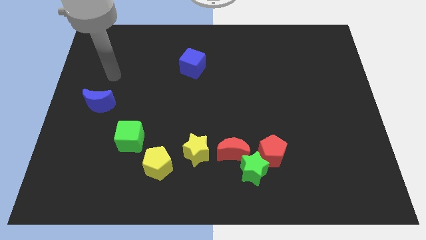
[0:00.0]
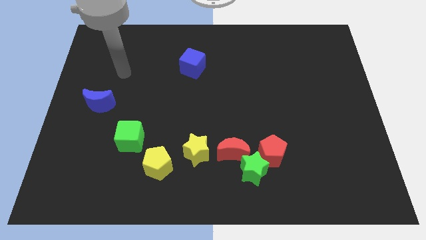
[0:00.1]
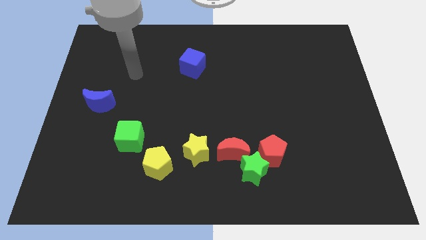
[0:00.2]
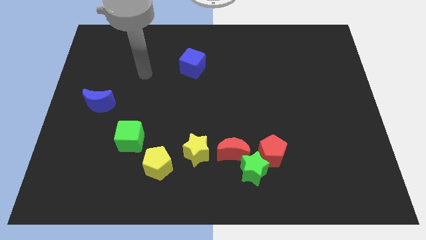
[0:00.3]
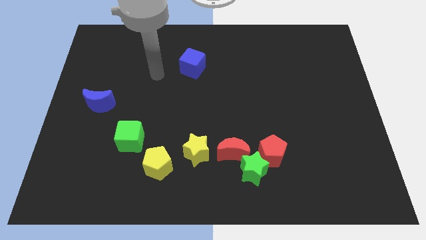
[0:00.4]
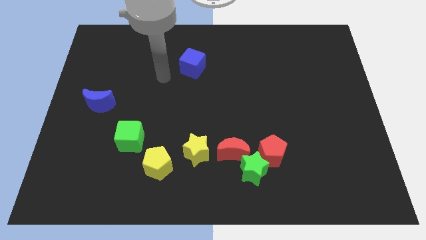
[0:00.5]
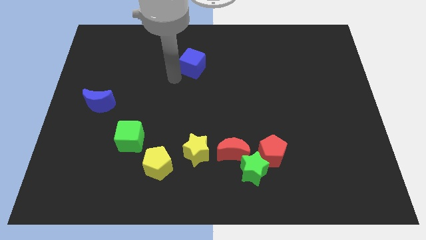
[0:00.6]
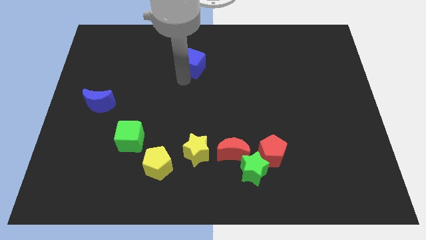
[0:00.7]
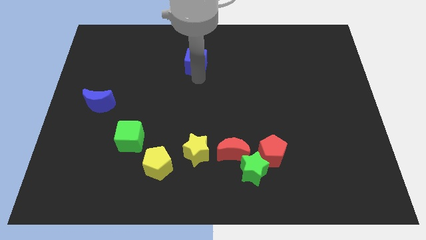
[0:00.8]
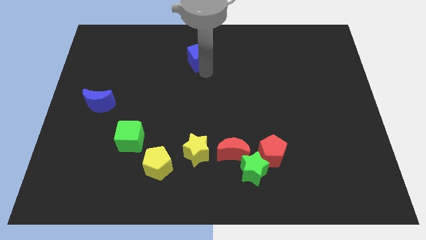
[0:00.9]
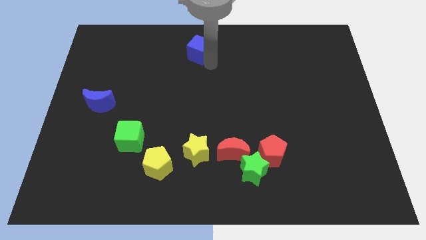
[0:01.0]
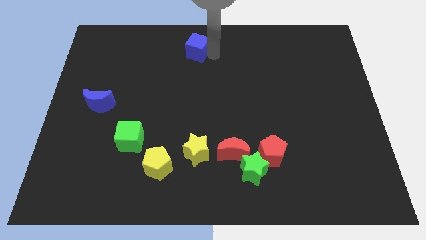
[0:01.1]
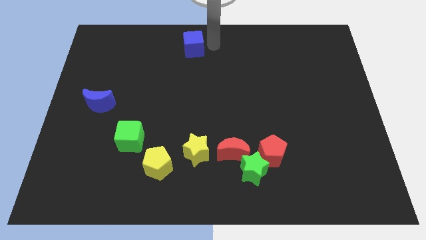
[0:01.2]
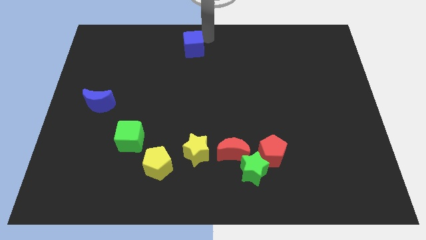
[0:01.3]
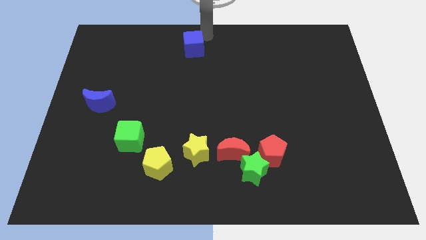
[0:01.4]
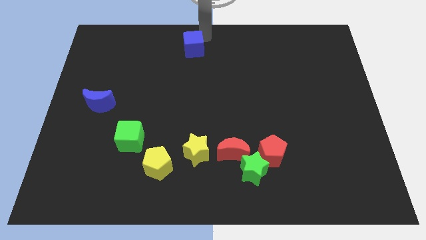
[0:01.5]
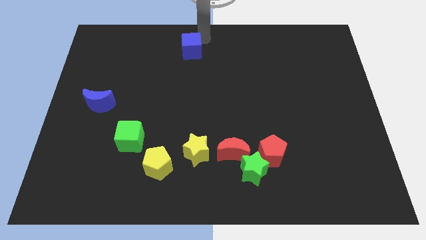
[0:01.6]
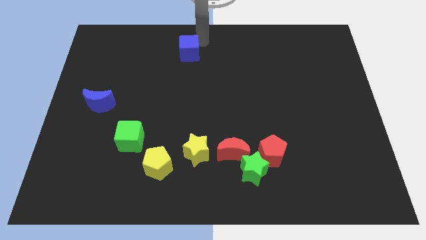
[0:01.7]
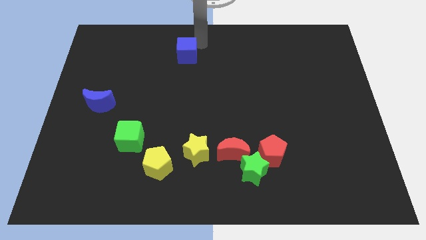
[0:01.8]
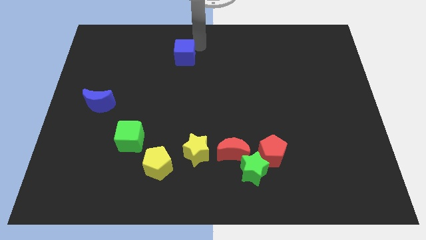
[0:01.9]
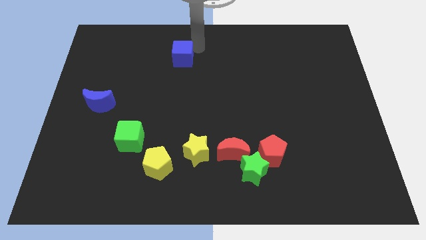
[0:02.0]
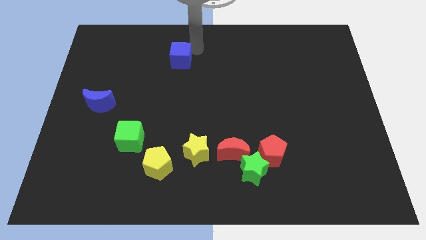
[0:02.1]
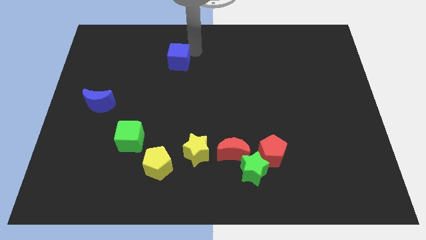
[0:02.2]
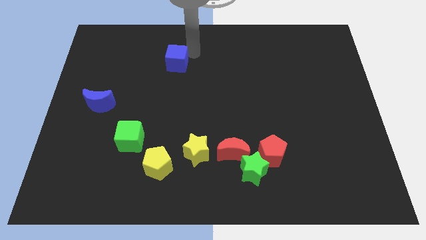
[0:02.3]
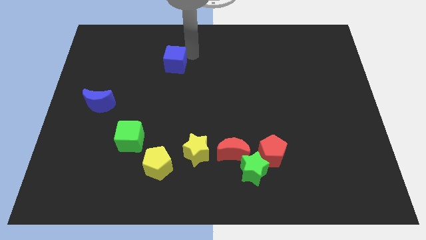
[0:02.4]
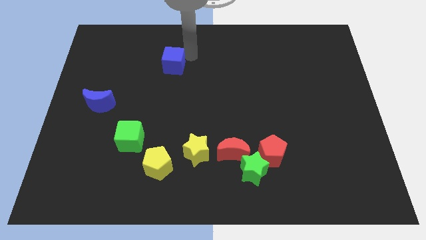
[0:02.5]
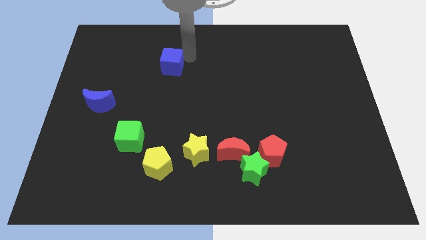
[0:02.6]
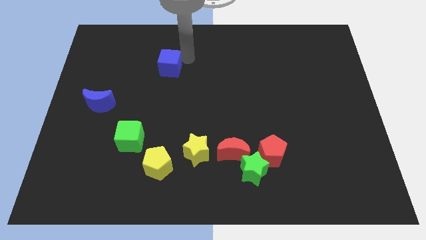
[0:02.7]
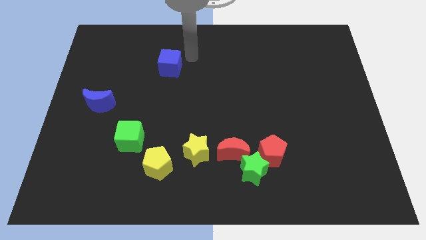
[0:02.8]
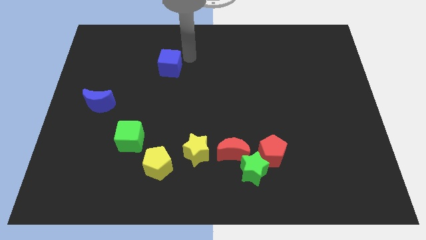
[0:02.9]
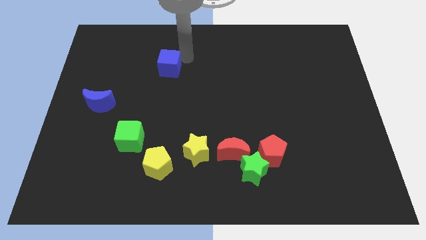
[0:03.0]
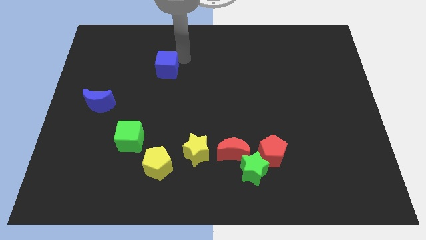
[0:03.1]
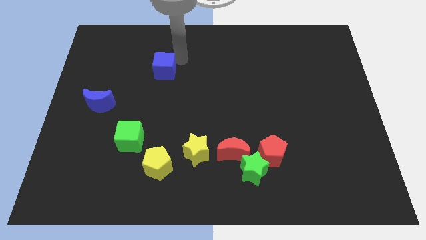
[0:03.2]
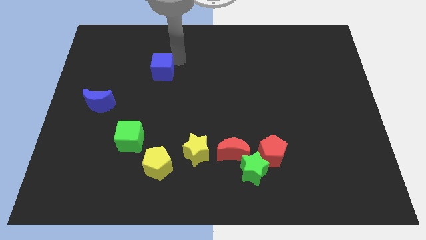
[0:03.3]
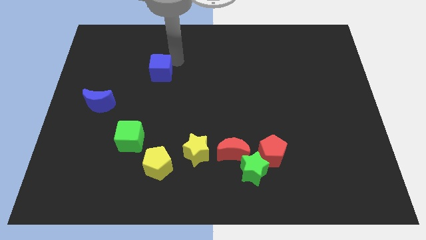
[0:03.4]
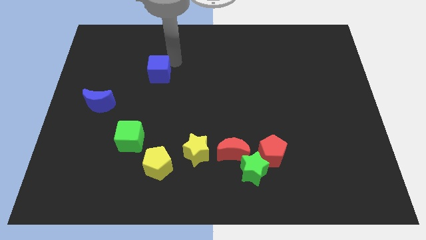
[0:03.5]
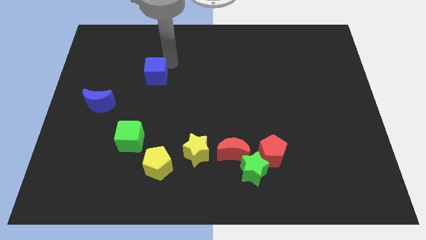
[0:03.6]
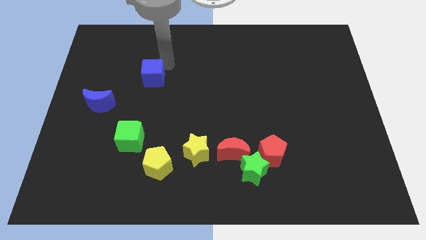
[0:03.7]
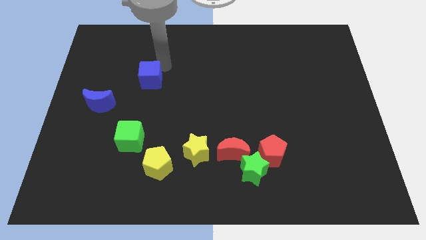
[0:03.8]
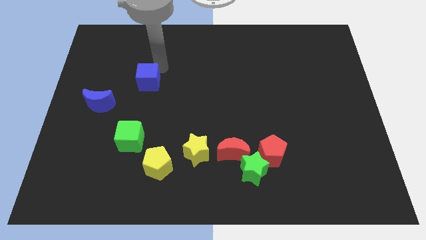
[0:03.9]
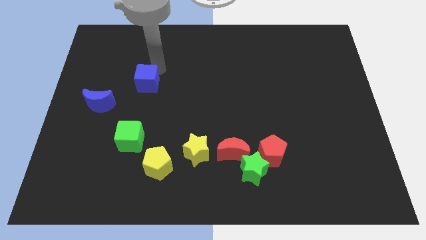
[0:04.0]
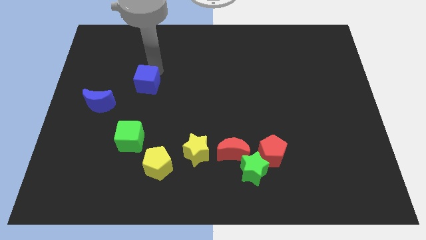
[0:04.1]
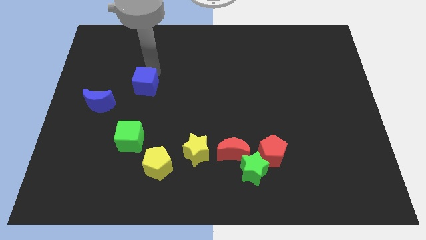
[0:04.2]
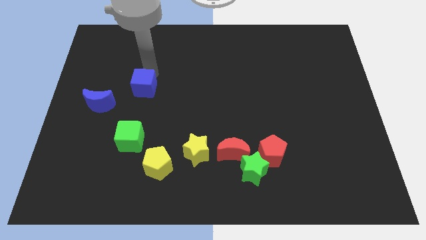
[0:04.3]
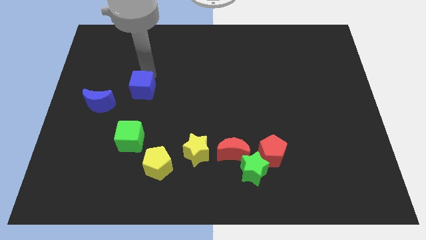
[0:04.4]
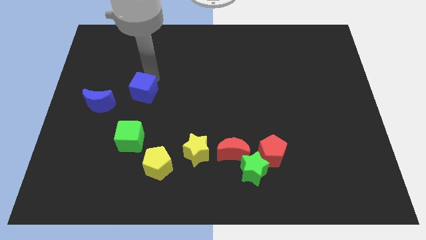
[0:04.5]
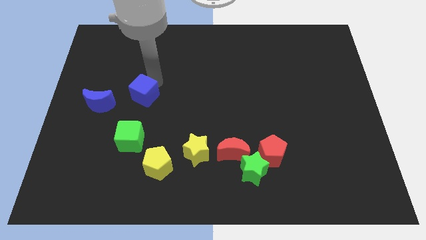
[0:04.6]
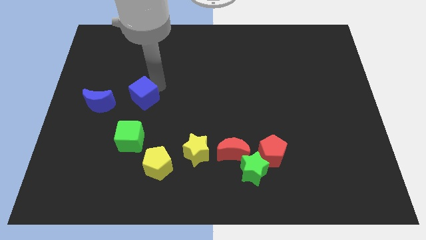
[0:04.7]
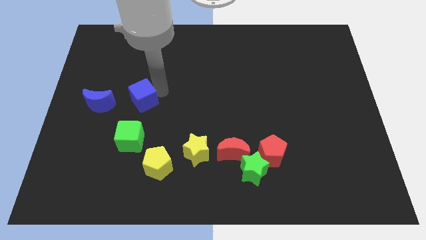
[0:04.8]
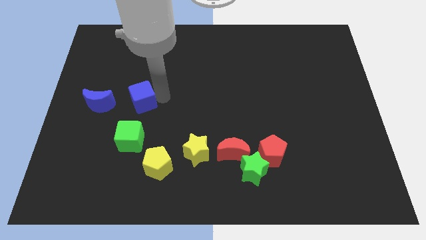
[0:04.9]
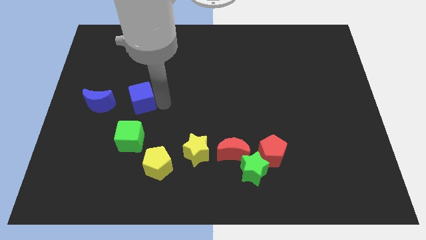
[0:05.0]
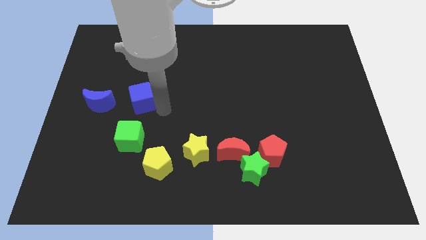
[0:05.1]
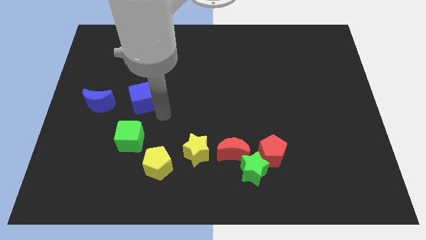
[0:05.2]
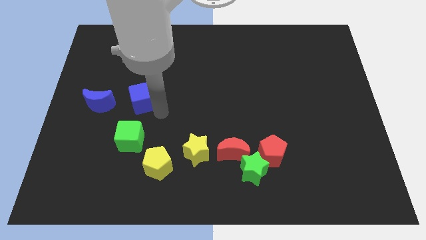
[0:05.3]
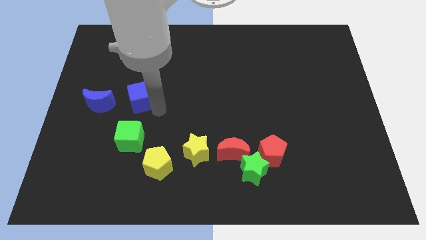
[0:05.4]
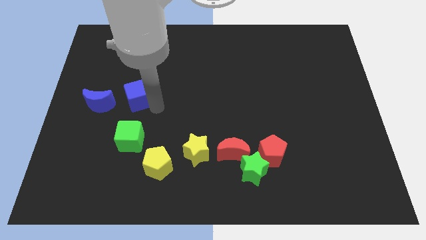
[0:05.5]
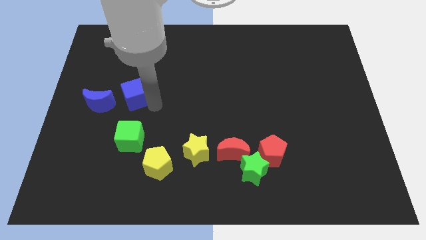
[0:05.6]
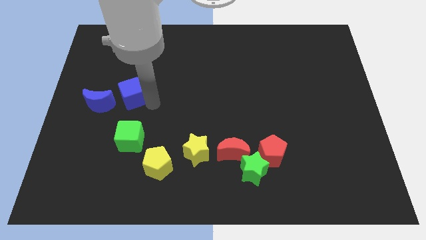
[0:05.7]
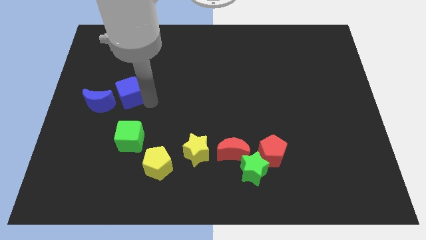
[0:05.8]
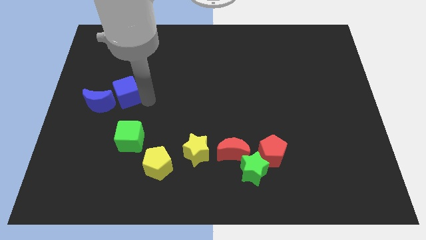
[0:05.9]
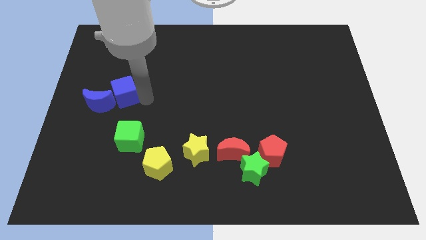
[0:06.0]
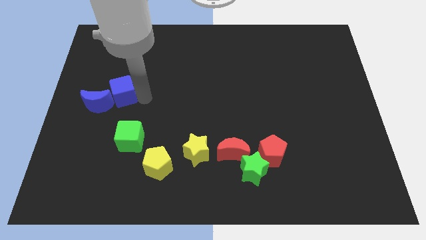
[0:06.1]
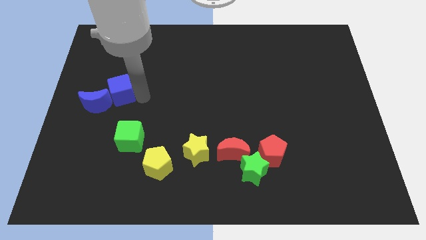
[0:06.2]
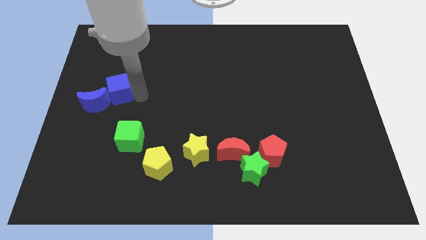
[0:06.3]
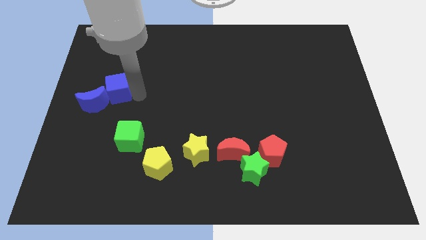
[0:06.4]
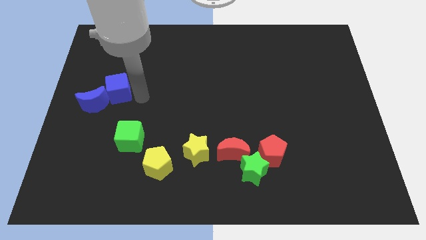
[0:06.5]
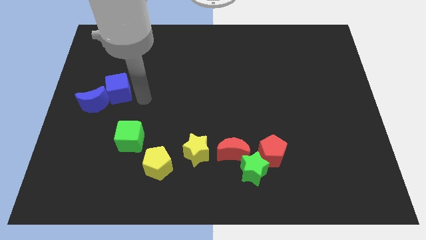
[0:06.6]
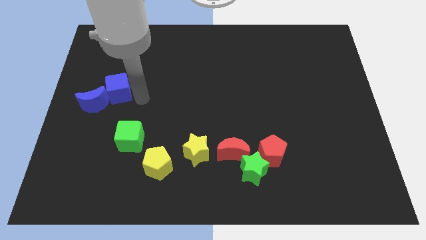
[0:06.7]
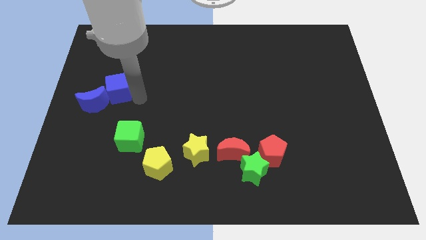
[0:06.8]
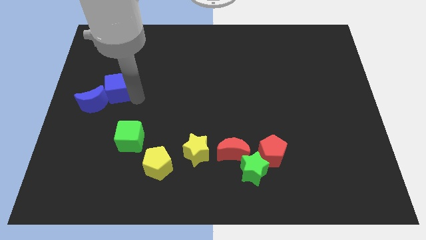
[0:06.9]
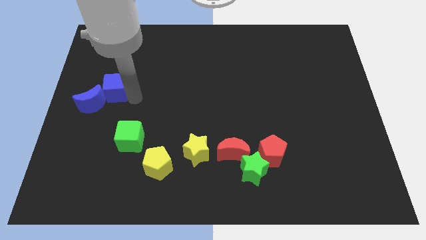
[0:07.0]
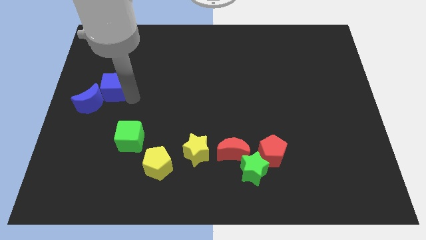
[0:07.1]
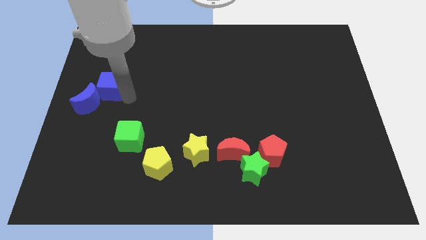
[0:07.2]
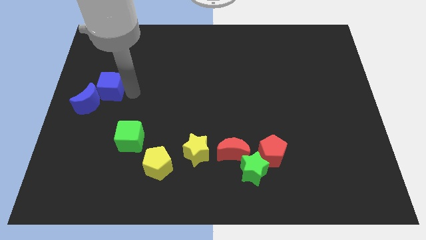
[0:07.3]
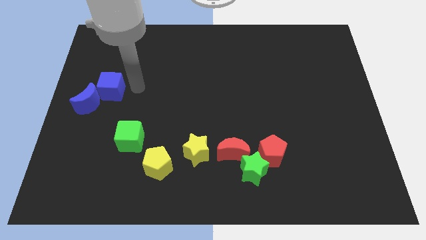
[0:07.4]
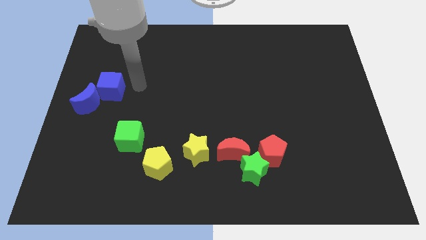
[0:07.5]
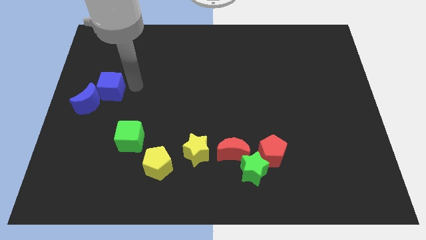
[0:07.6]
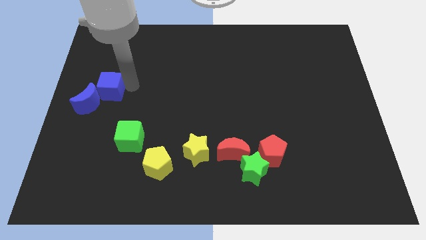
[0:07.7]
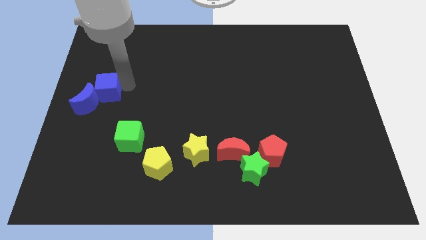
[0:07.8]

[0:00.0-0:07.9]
slide the blue cube to the left side

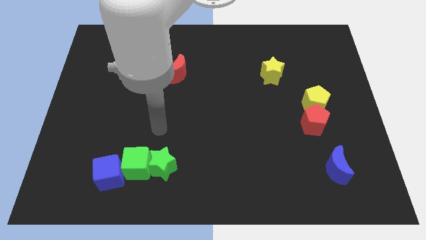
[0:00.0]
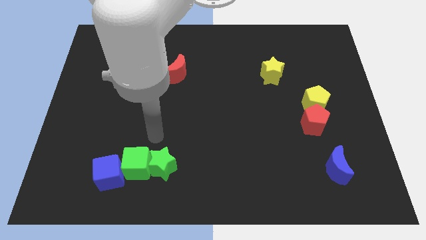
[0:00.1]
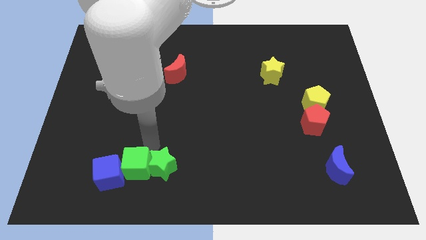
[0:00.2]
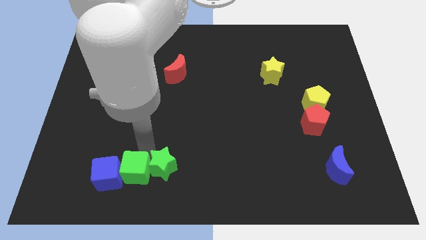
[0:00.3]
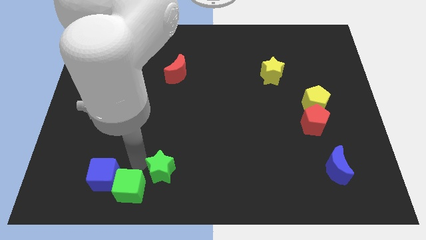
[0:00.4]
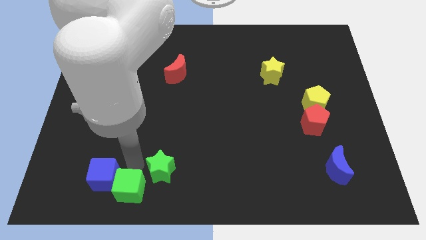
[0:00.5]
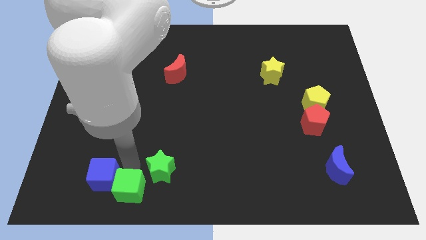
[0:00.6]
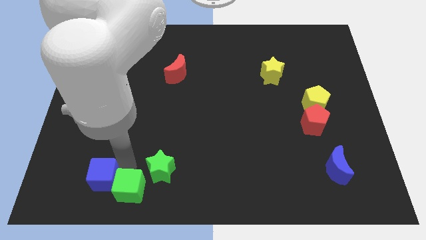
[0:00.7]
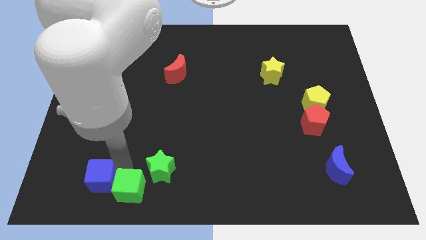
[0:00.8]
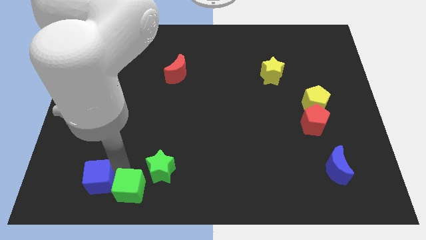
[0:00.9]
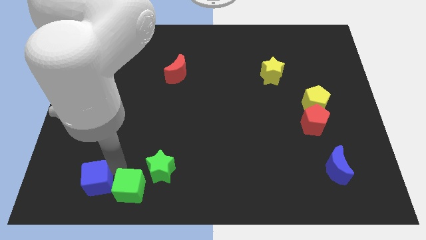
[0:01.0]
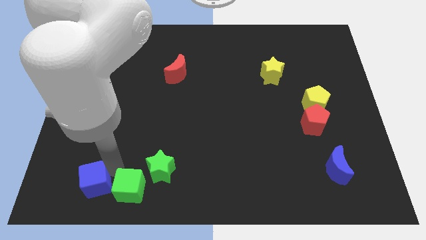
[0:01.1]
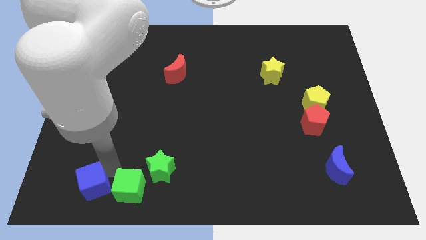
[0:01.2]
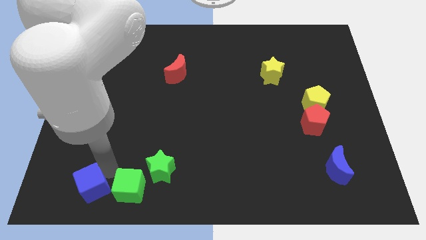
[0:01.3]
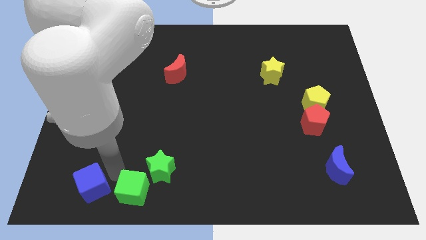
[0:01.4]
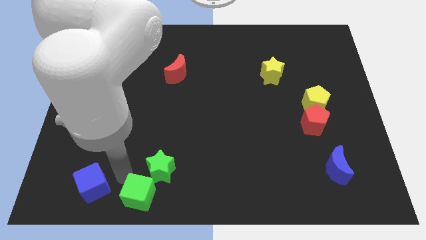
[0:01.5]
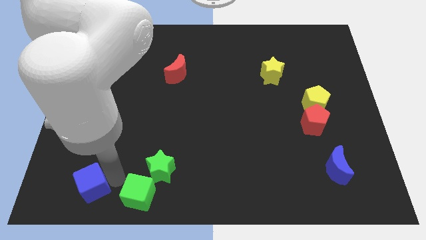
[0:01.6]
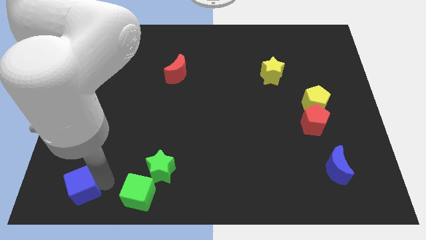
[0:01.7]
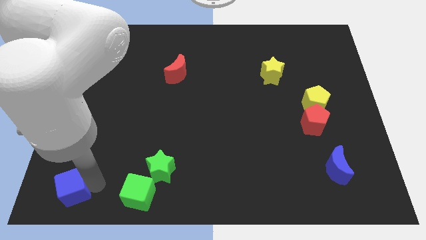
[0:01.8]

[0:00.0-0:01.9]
slide the blue cube to the lower left corner
